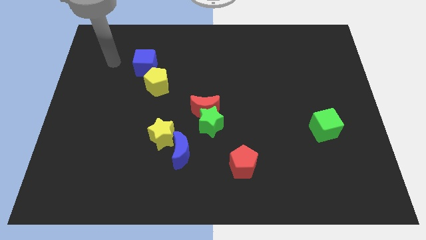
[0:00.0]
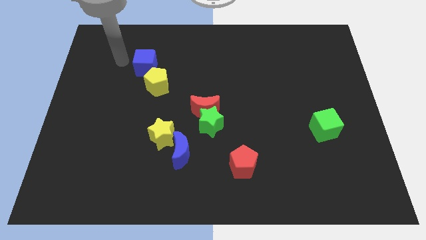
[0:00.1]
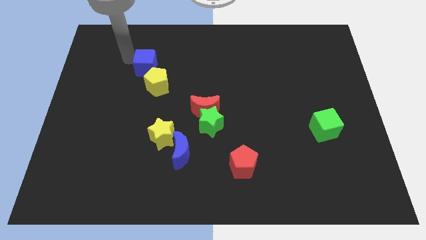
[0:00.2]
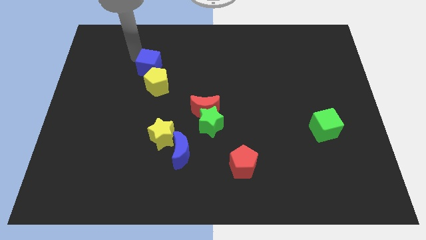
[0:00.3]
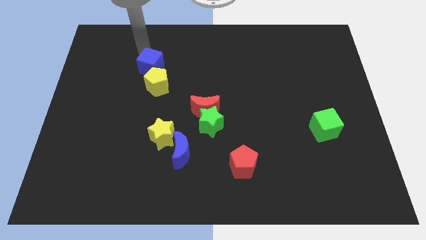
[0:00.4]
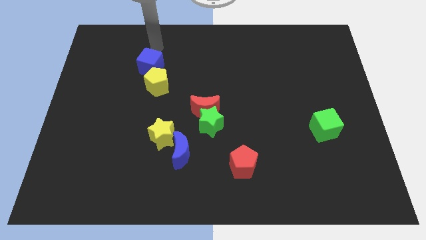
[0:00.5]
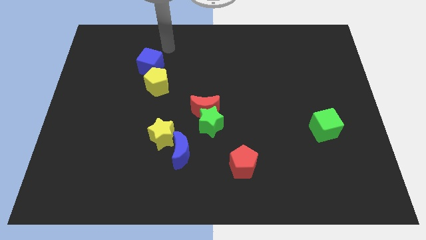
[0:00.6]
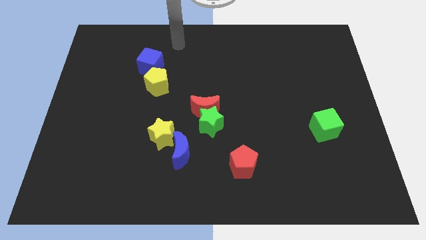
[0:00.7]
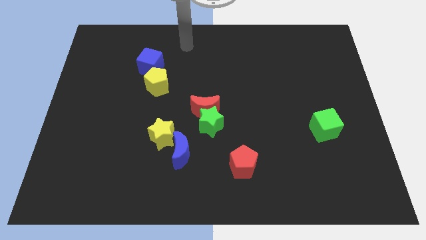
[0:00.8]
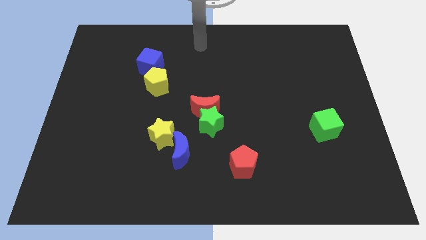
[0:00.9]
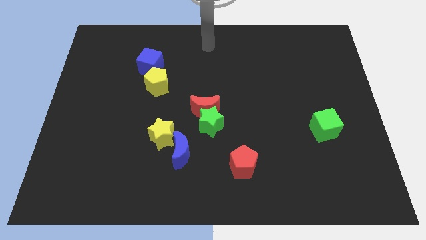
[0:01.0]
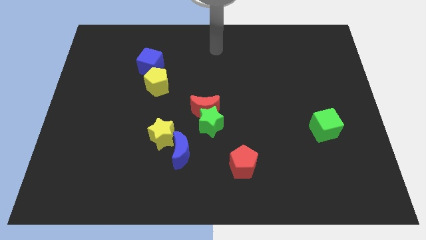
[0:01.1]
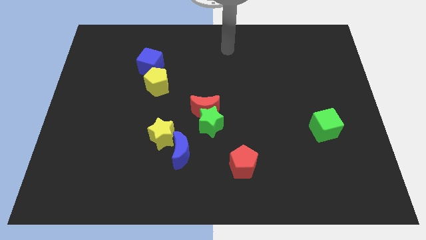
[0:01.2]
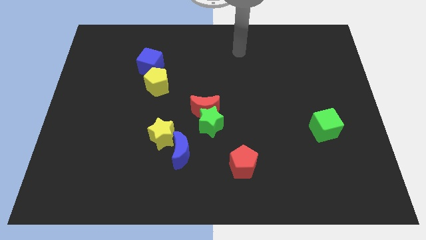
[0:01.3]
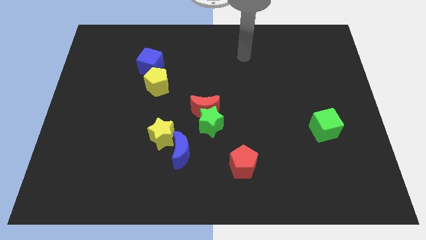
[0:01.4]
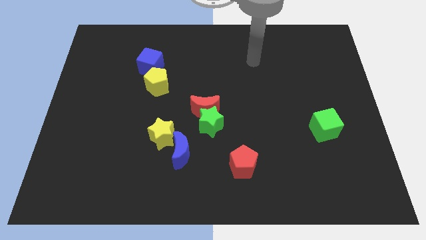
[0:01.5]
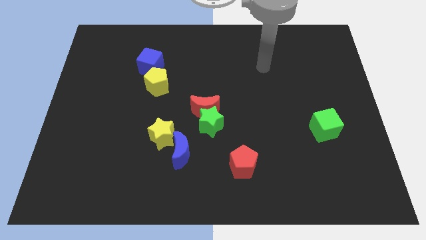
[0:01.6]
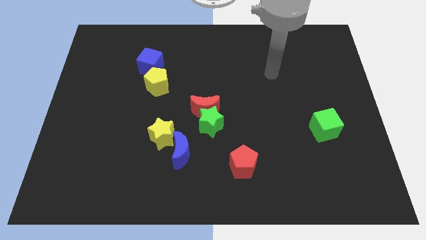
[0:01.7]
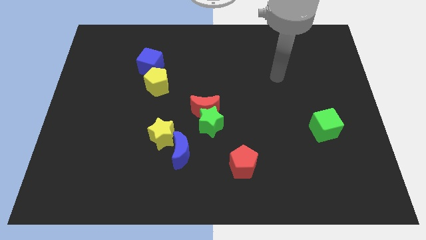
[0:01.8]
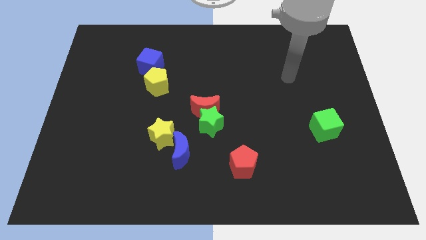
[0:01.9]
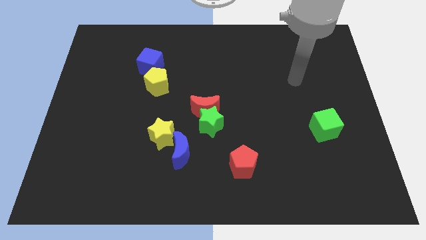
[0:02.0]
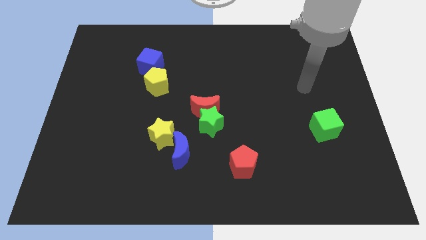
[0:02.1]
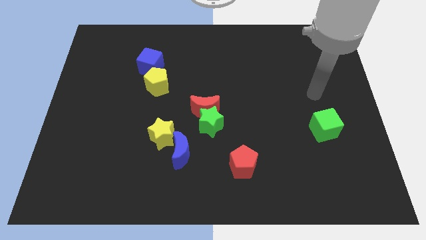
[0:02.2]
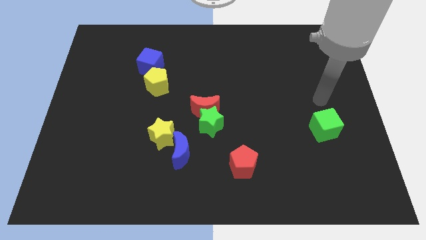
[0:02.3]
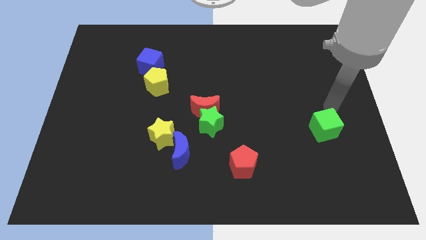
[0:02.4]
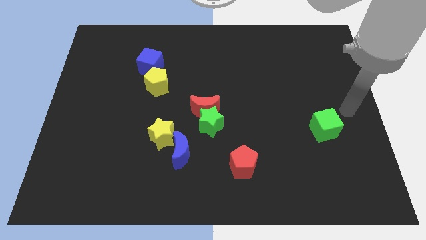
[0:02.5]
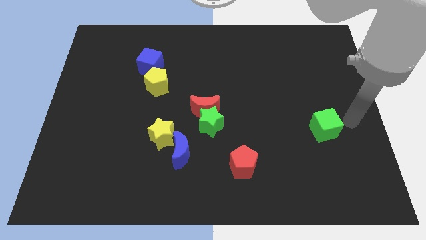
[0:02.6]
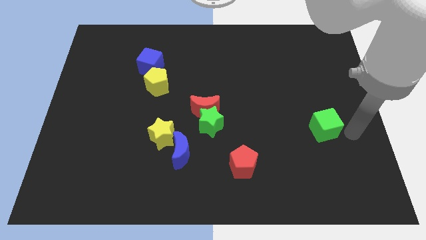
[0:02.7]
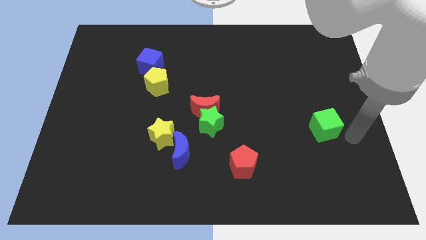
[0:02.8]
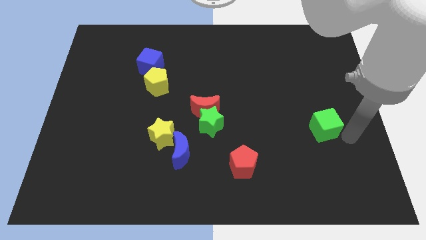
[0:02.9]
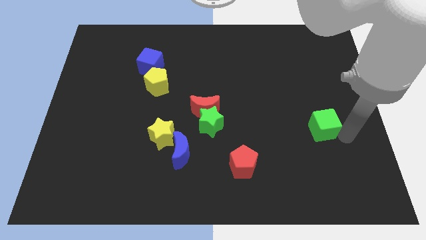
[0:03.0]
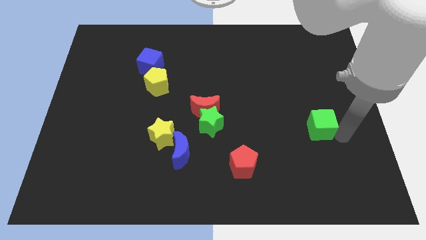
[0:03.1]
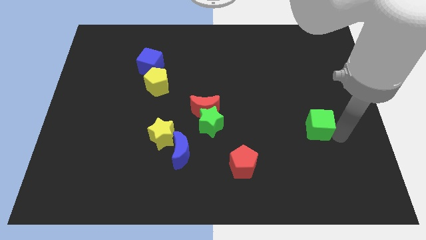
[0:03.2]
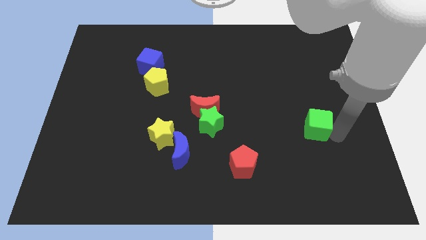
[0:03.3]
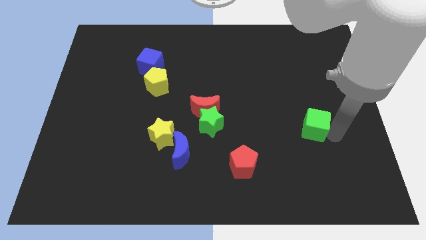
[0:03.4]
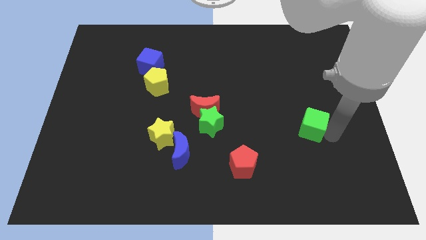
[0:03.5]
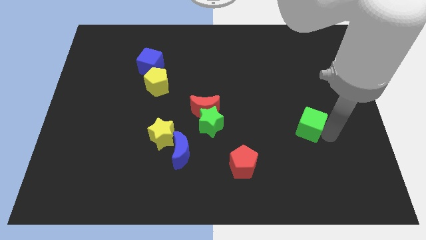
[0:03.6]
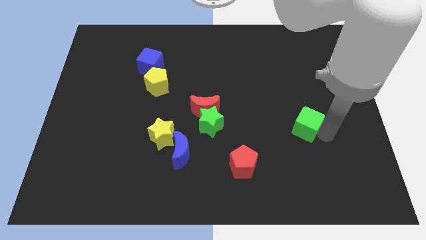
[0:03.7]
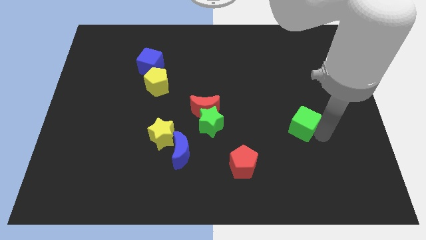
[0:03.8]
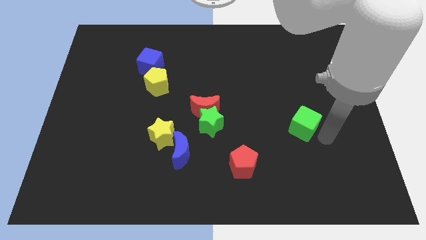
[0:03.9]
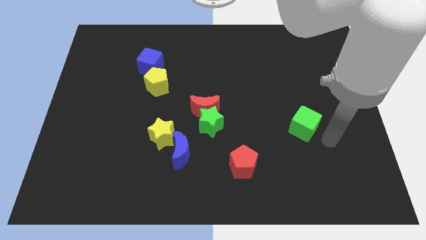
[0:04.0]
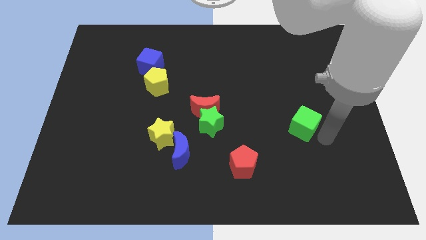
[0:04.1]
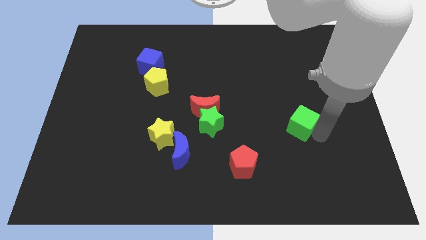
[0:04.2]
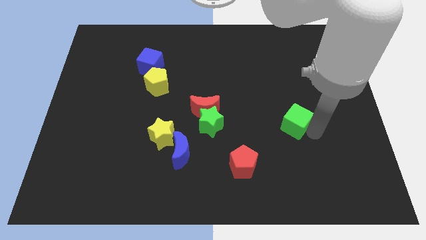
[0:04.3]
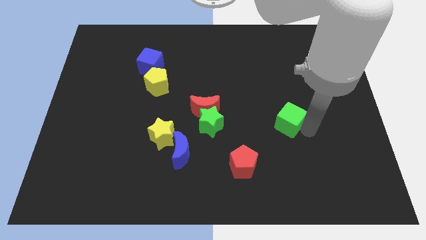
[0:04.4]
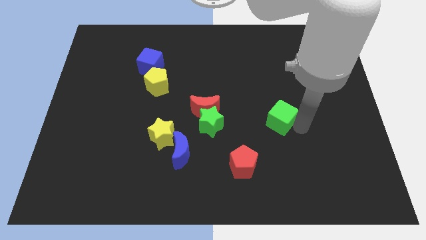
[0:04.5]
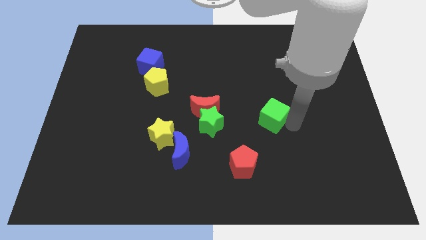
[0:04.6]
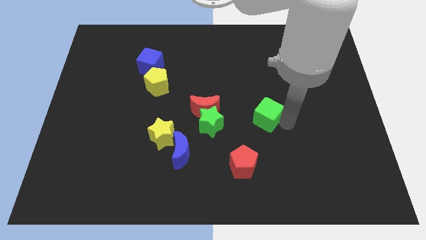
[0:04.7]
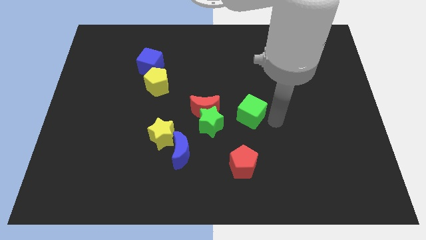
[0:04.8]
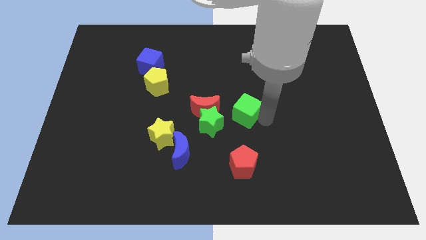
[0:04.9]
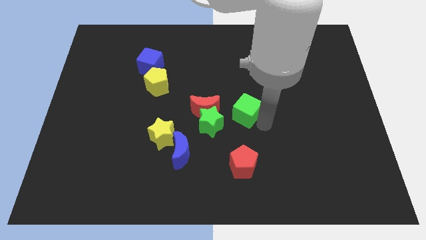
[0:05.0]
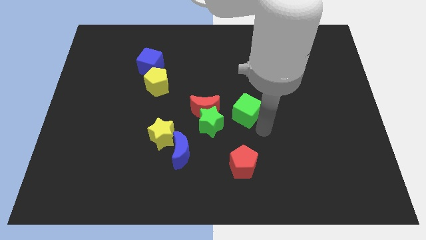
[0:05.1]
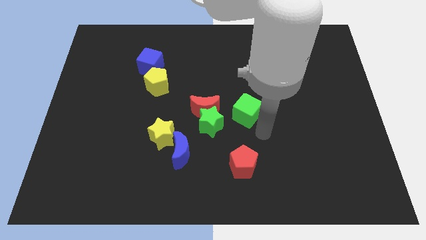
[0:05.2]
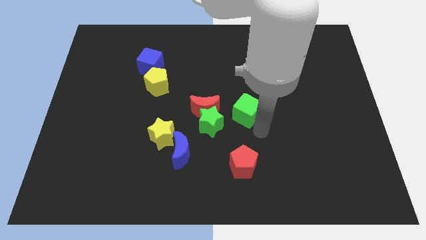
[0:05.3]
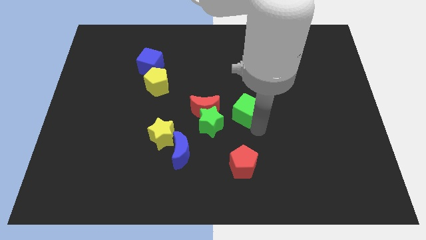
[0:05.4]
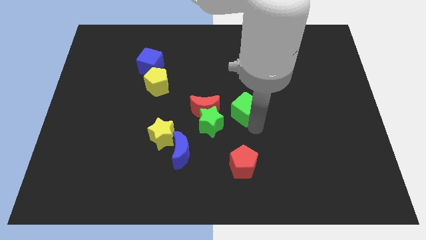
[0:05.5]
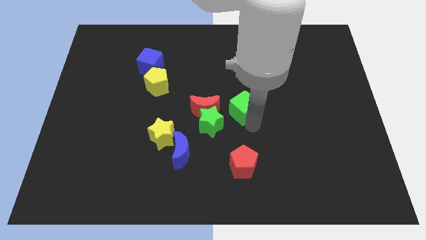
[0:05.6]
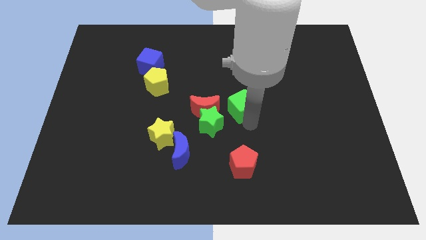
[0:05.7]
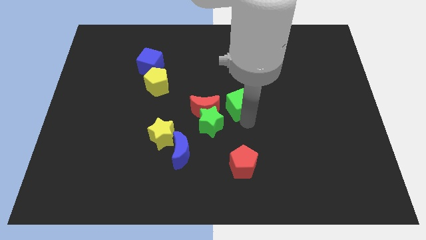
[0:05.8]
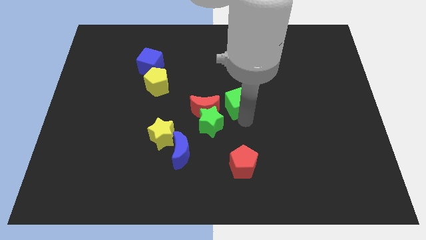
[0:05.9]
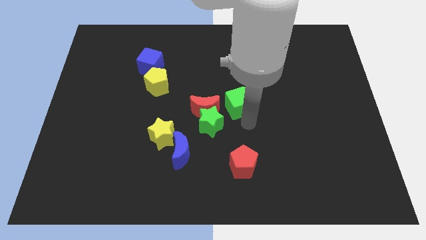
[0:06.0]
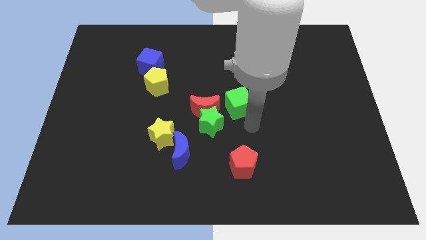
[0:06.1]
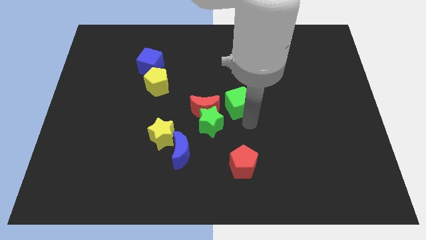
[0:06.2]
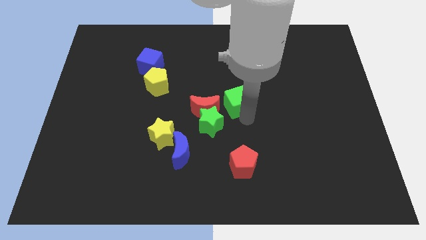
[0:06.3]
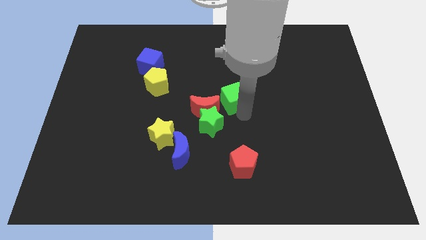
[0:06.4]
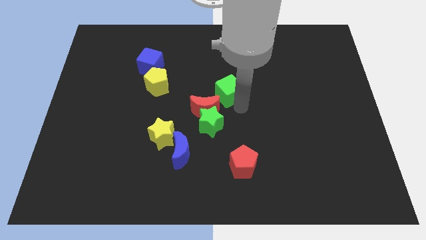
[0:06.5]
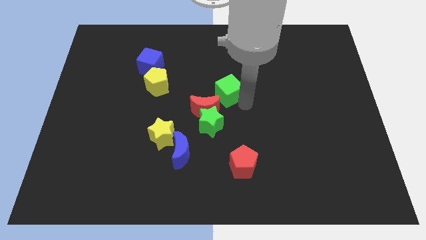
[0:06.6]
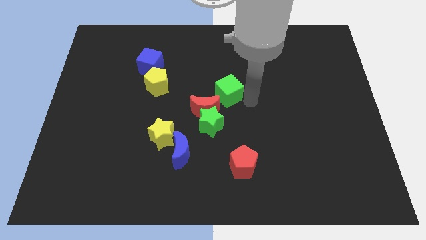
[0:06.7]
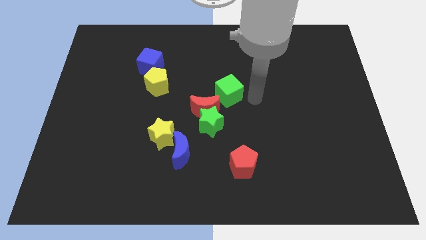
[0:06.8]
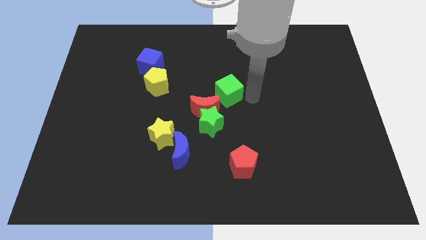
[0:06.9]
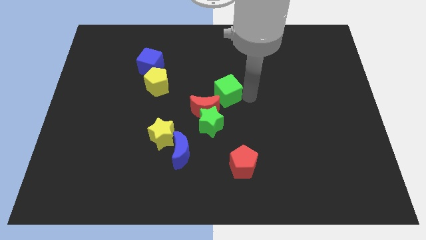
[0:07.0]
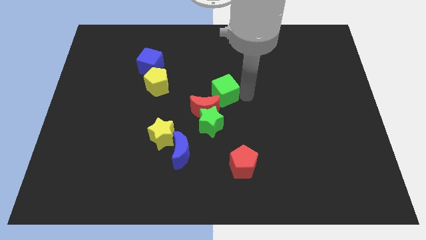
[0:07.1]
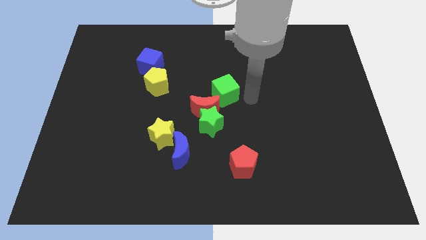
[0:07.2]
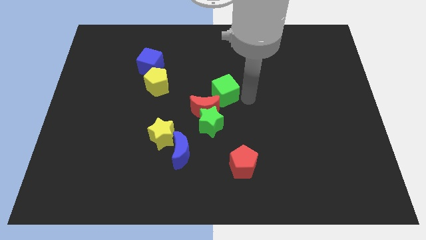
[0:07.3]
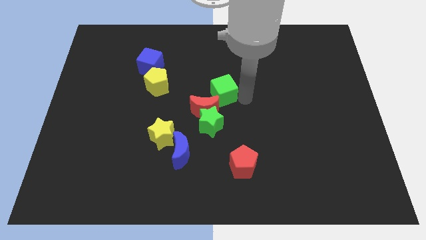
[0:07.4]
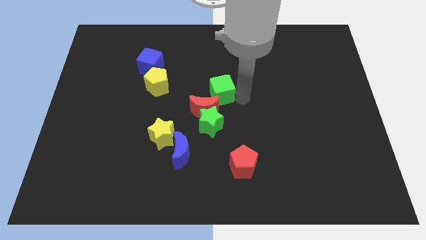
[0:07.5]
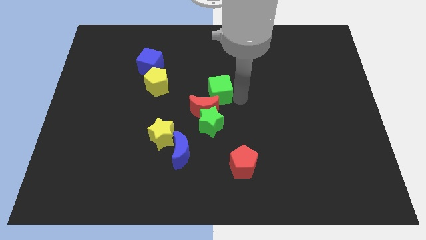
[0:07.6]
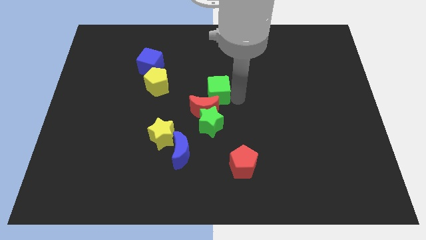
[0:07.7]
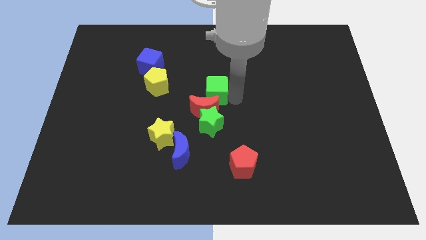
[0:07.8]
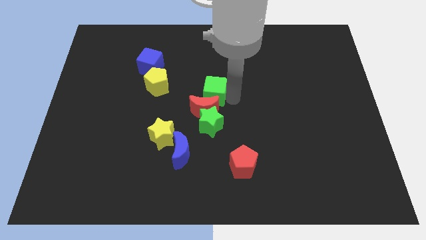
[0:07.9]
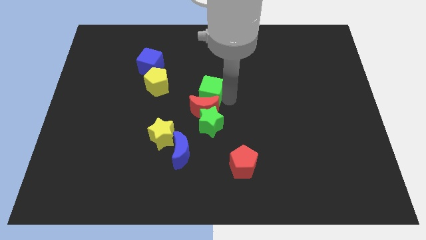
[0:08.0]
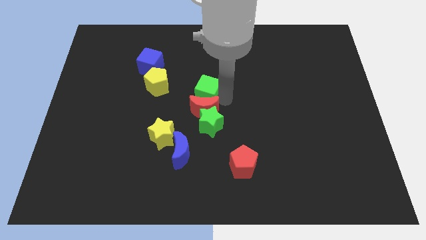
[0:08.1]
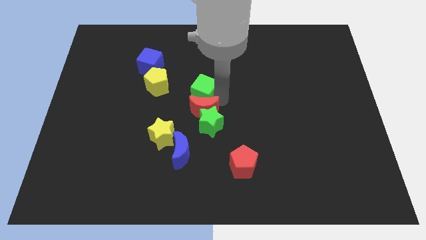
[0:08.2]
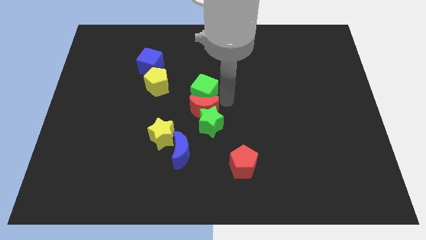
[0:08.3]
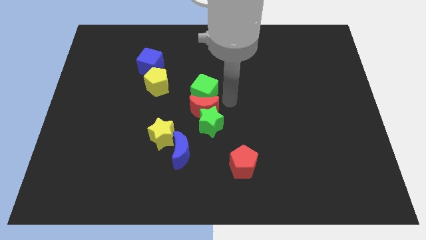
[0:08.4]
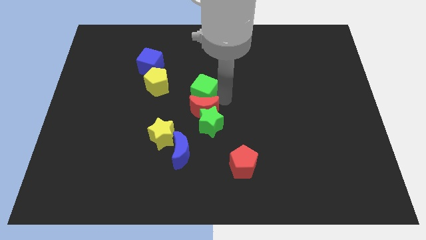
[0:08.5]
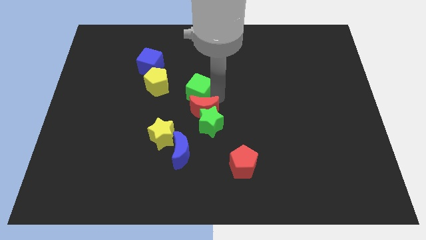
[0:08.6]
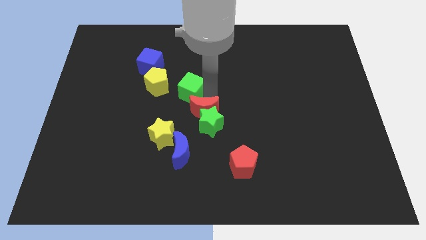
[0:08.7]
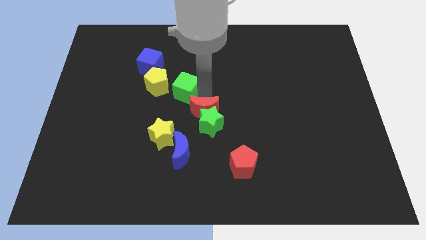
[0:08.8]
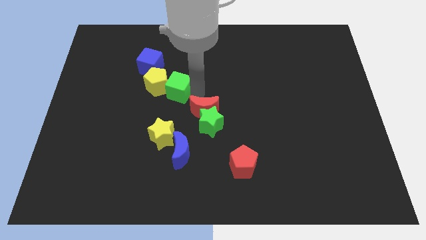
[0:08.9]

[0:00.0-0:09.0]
push the green cube close to the yellow pentagon
